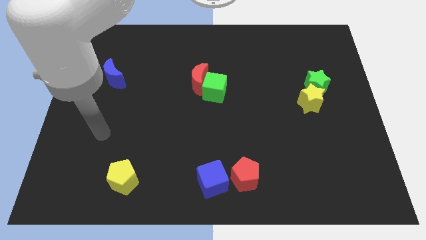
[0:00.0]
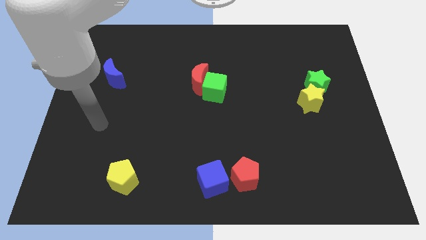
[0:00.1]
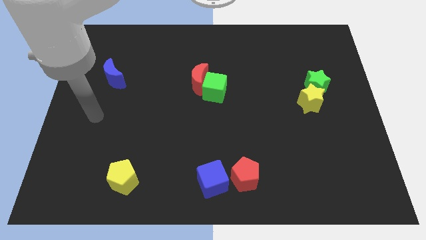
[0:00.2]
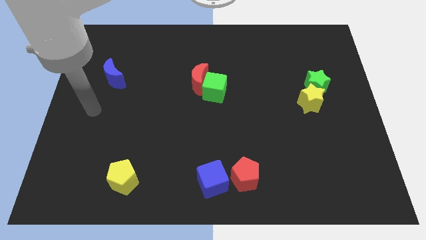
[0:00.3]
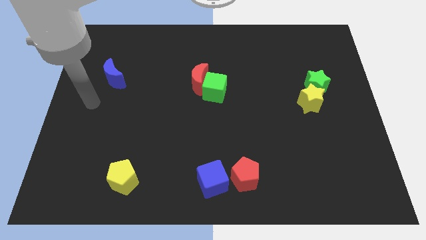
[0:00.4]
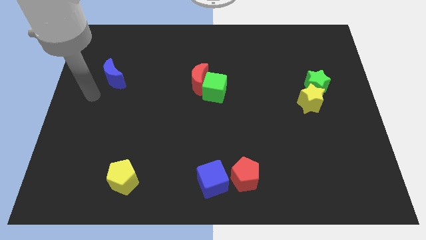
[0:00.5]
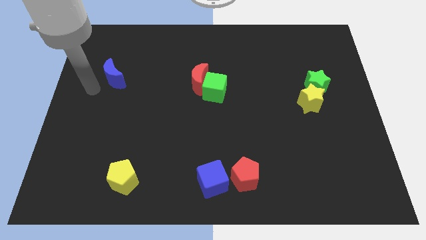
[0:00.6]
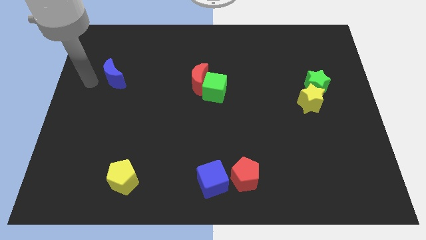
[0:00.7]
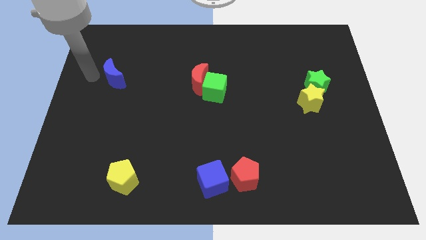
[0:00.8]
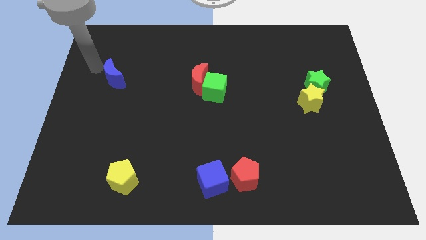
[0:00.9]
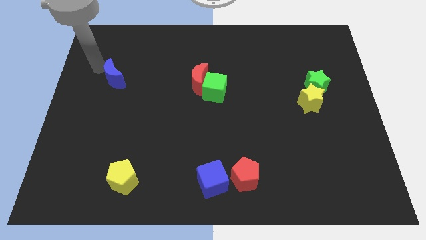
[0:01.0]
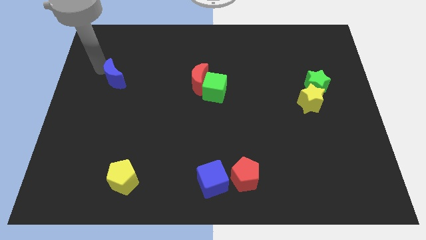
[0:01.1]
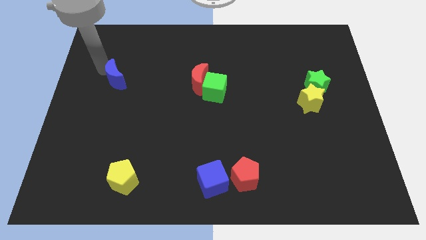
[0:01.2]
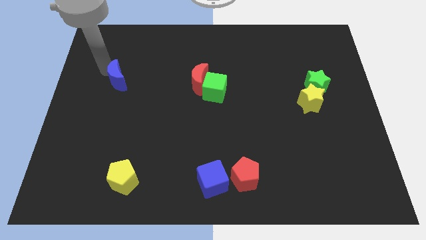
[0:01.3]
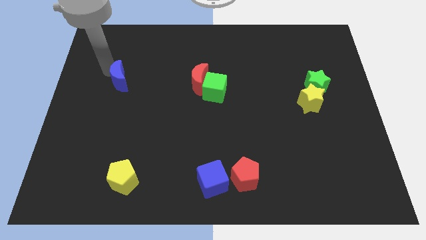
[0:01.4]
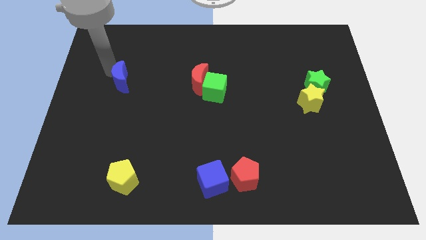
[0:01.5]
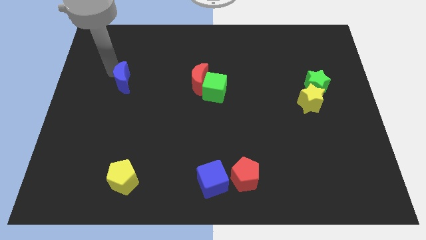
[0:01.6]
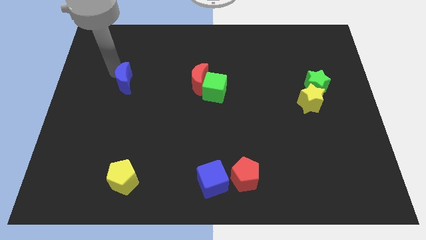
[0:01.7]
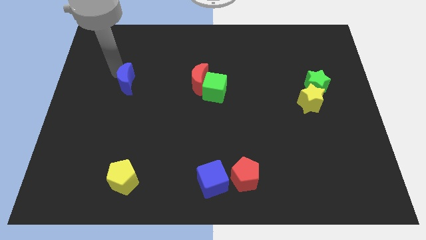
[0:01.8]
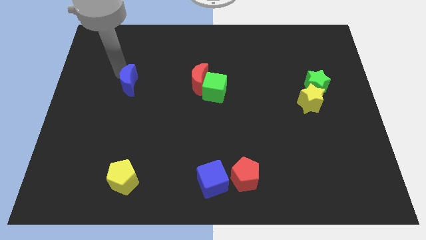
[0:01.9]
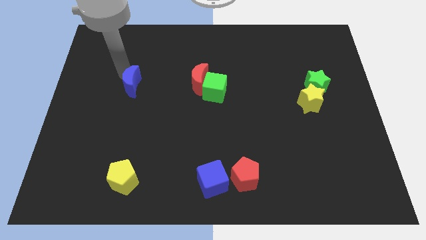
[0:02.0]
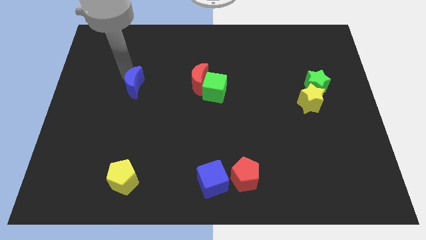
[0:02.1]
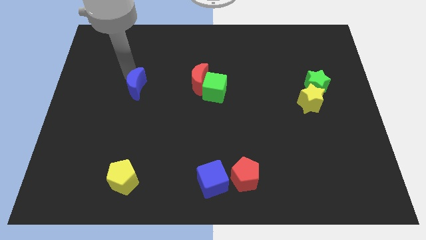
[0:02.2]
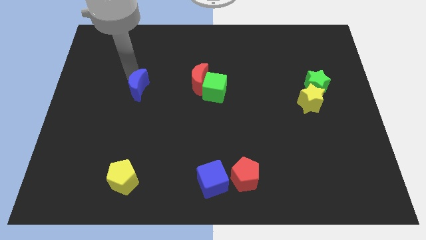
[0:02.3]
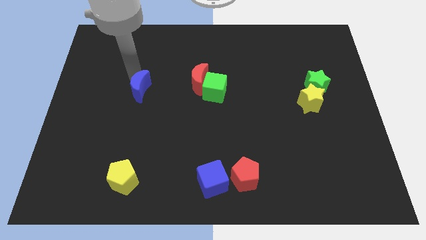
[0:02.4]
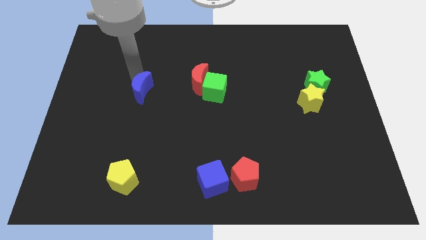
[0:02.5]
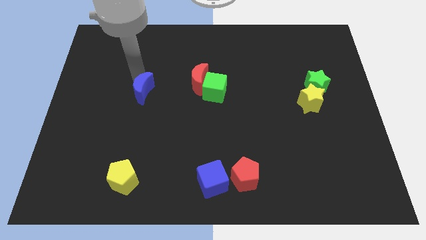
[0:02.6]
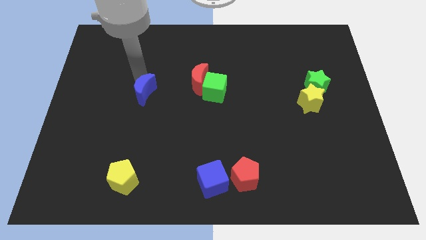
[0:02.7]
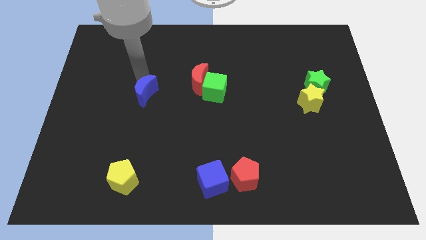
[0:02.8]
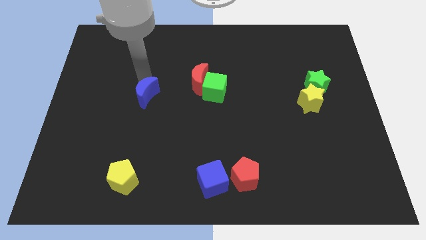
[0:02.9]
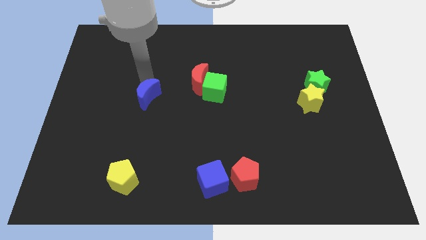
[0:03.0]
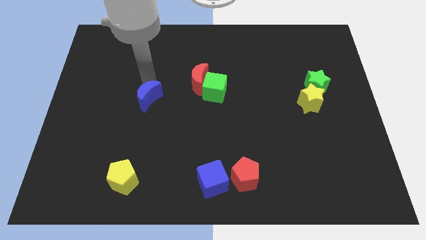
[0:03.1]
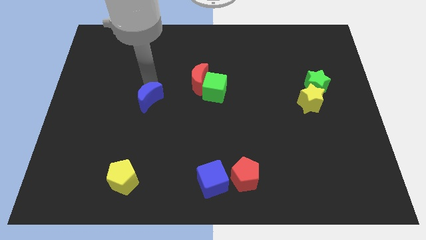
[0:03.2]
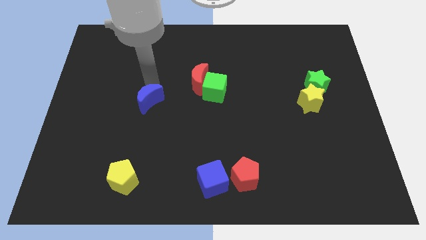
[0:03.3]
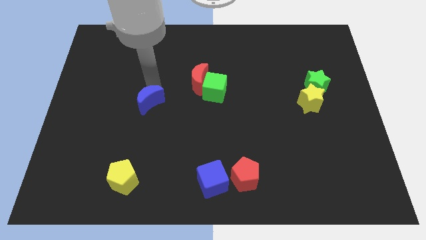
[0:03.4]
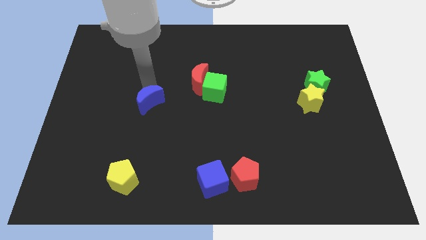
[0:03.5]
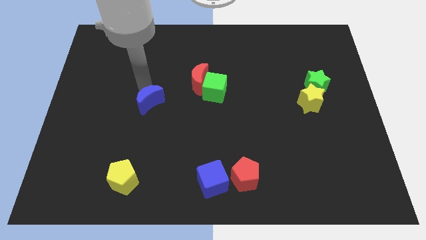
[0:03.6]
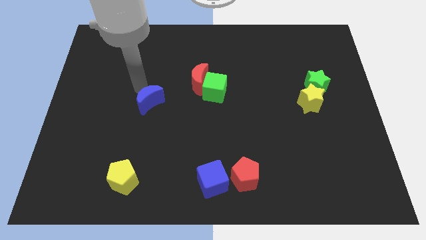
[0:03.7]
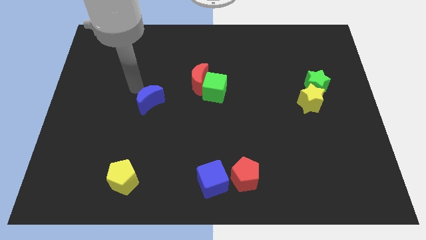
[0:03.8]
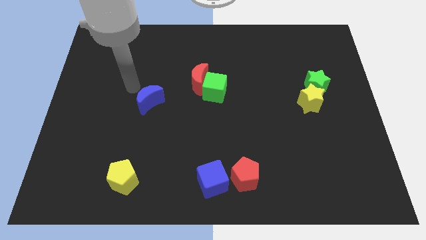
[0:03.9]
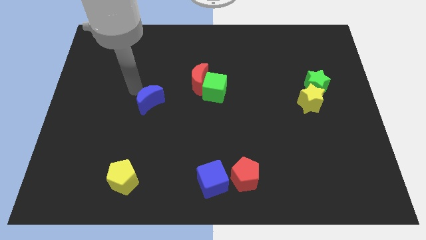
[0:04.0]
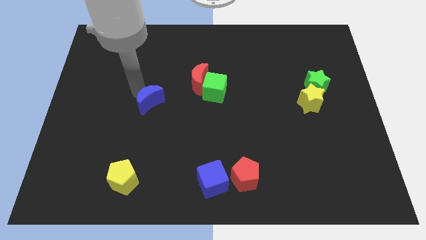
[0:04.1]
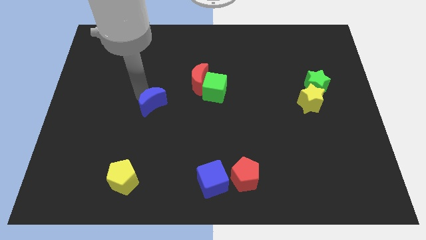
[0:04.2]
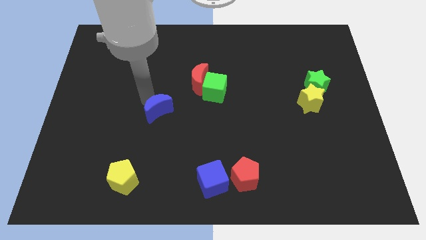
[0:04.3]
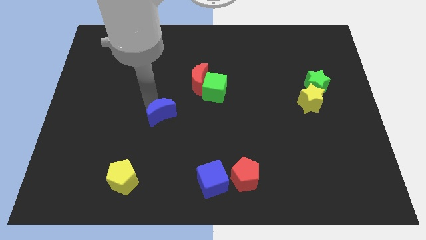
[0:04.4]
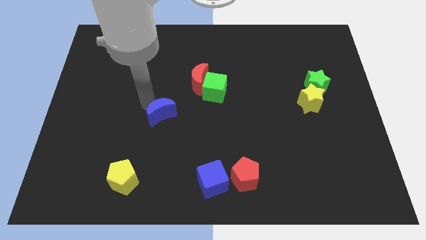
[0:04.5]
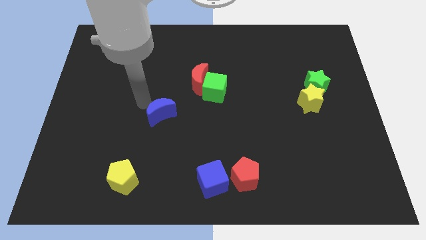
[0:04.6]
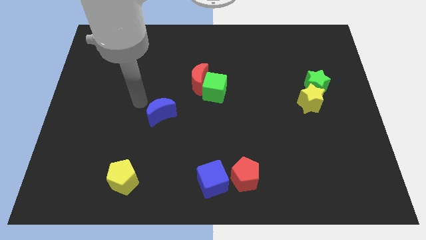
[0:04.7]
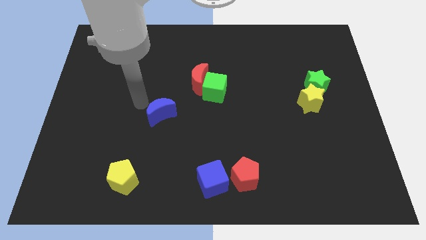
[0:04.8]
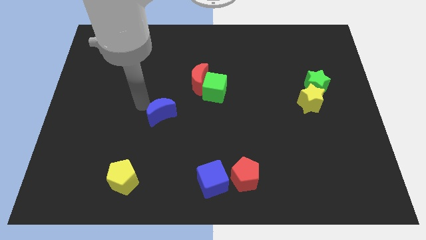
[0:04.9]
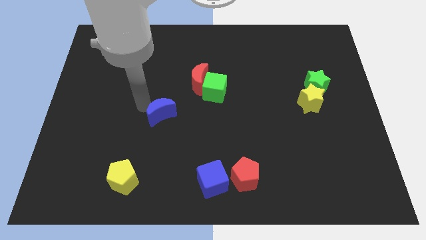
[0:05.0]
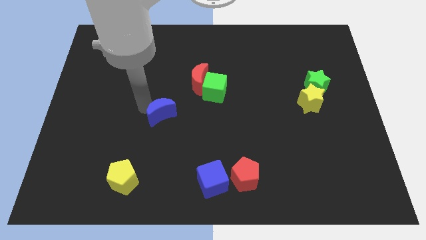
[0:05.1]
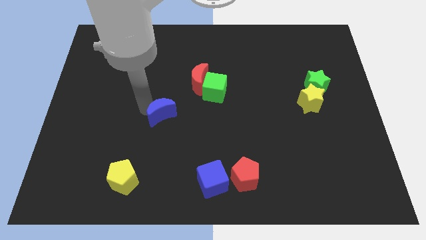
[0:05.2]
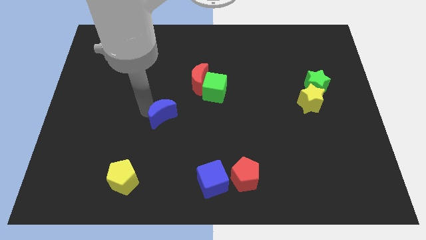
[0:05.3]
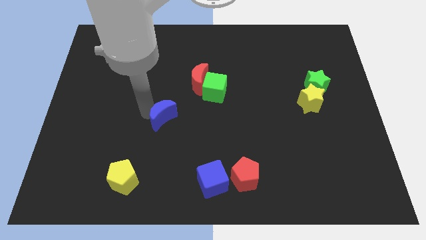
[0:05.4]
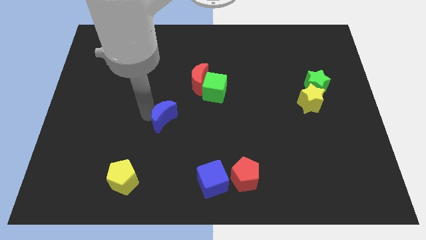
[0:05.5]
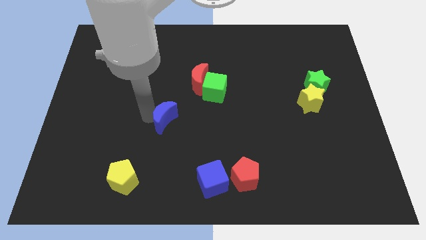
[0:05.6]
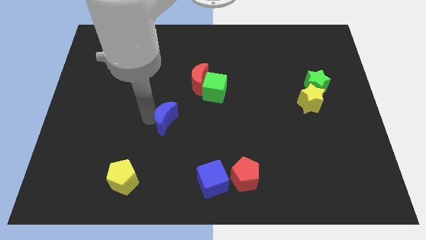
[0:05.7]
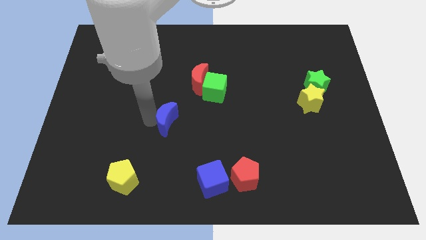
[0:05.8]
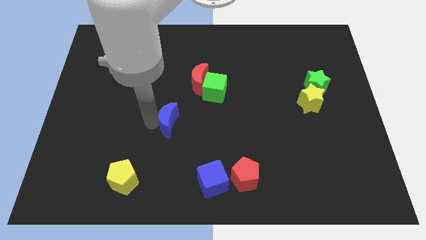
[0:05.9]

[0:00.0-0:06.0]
move the blue moon diagonally downwards and to the right

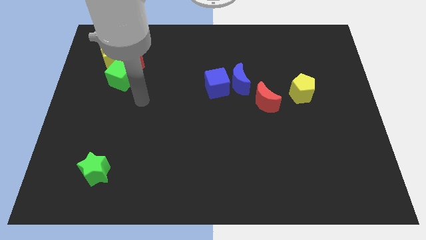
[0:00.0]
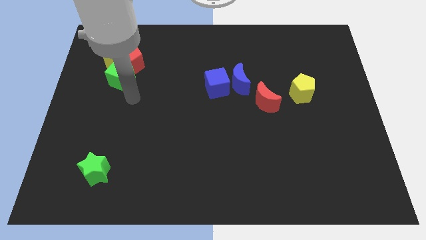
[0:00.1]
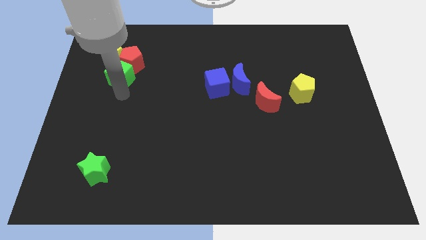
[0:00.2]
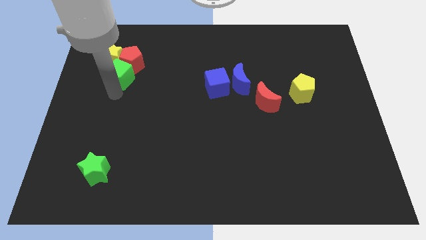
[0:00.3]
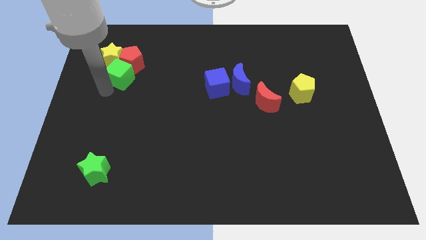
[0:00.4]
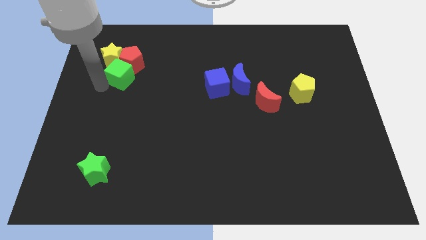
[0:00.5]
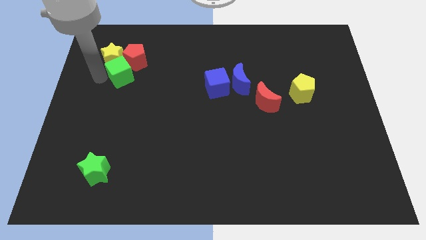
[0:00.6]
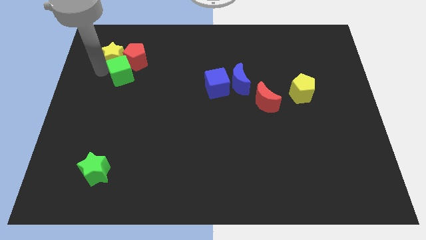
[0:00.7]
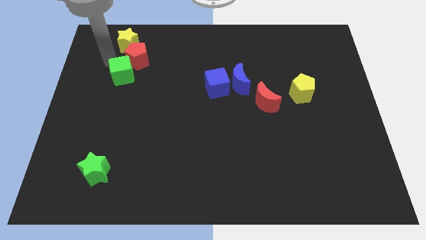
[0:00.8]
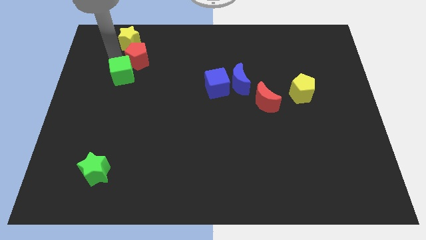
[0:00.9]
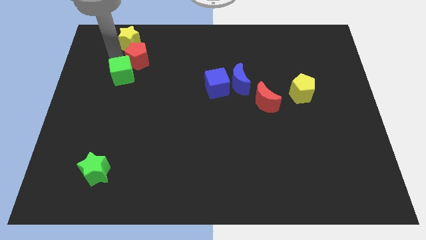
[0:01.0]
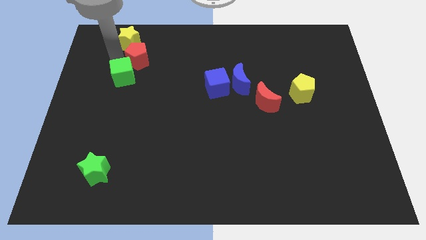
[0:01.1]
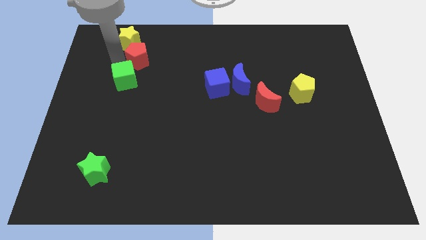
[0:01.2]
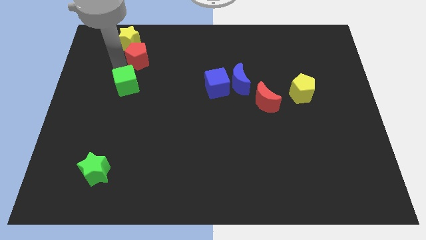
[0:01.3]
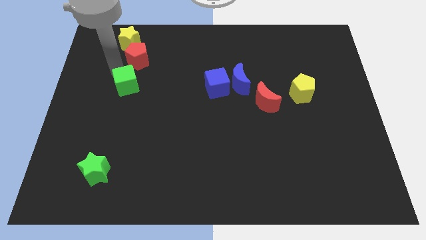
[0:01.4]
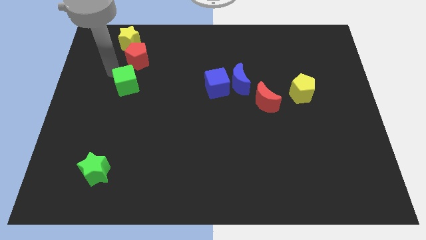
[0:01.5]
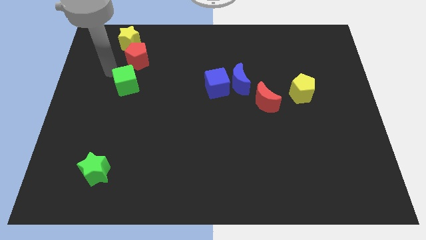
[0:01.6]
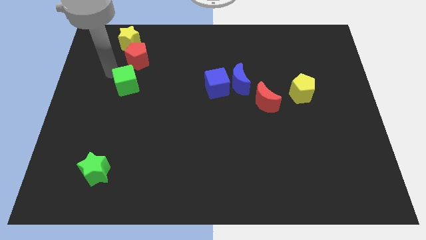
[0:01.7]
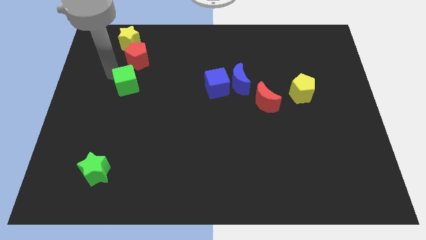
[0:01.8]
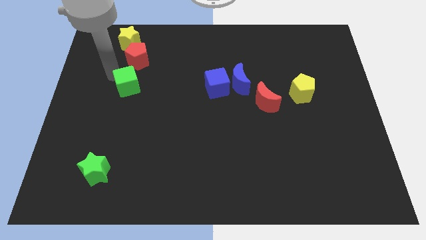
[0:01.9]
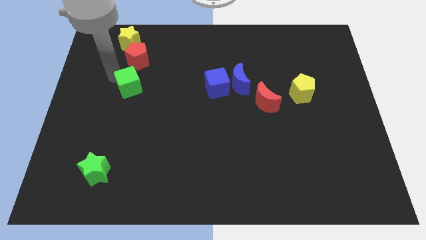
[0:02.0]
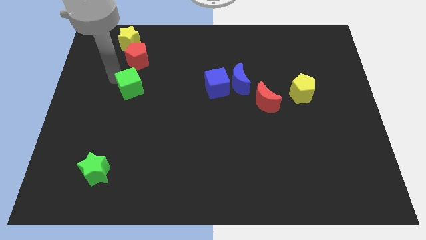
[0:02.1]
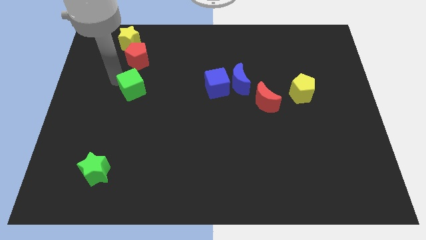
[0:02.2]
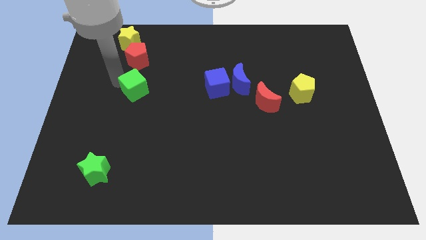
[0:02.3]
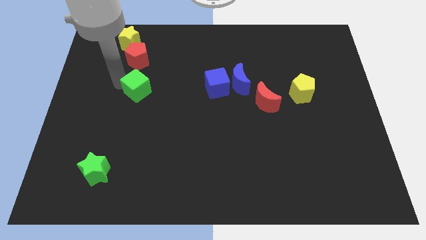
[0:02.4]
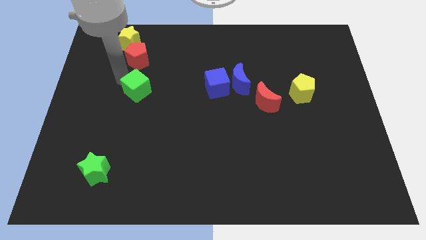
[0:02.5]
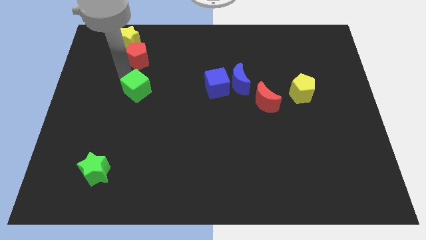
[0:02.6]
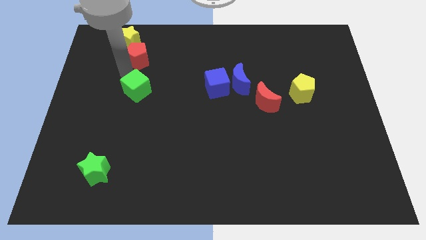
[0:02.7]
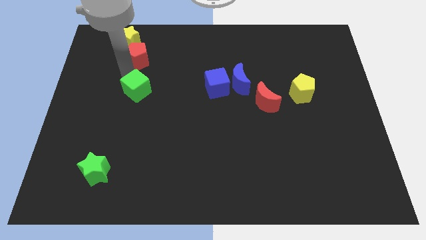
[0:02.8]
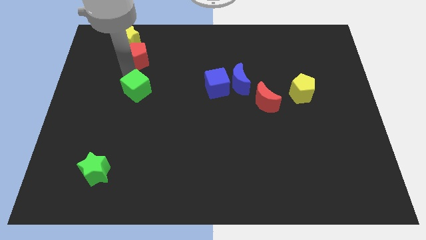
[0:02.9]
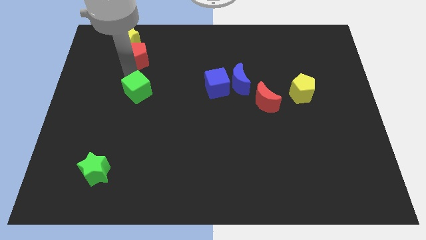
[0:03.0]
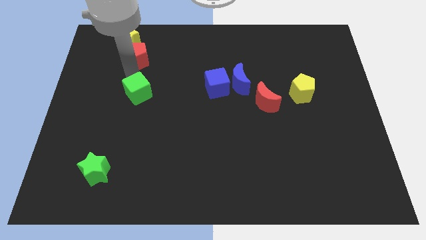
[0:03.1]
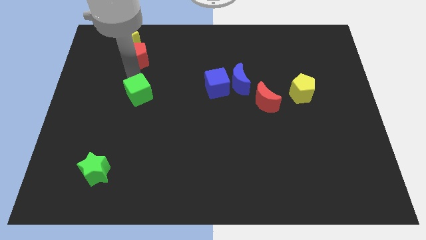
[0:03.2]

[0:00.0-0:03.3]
slightly slide the green cube down and to the right
